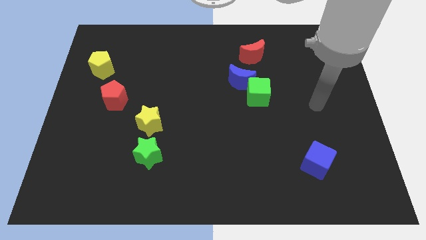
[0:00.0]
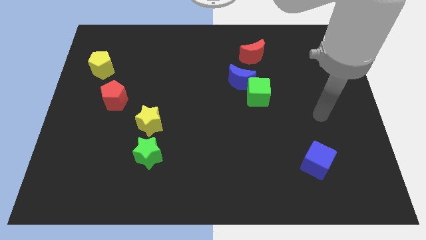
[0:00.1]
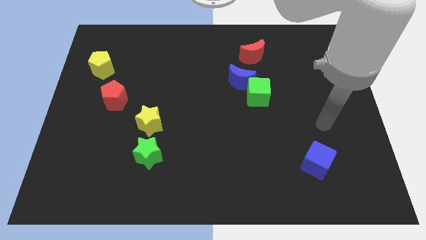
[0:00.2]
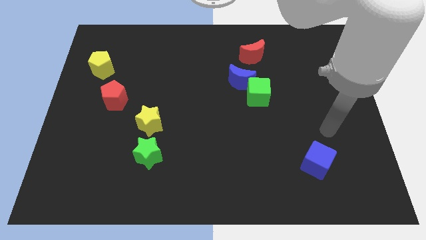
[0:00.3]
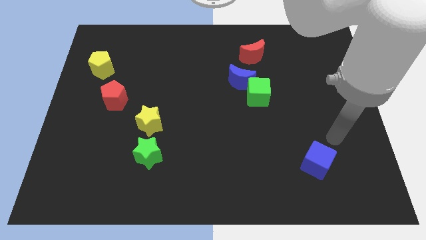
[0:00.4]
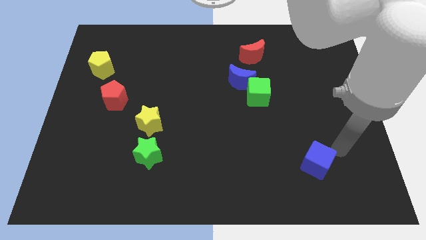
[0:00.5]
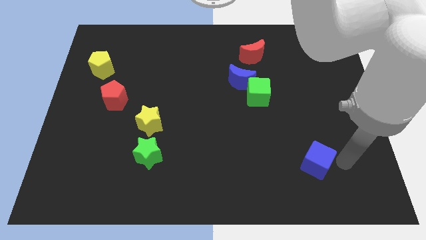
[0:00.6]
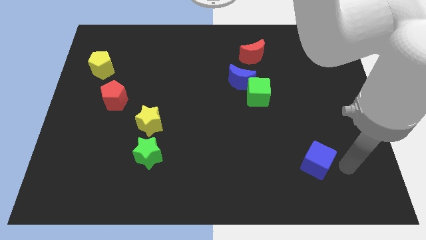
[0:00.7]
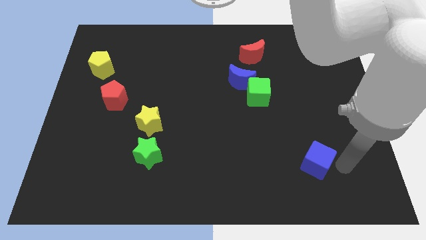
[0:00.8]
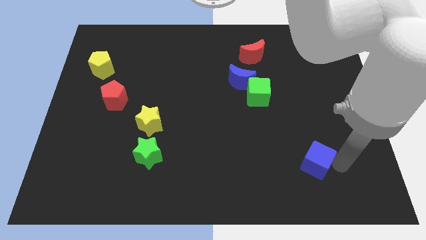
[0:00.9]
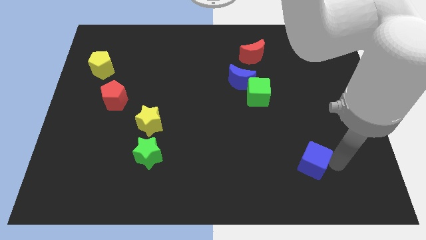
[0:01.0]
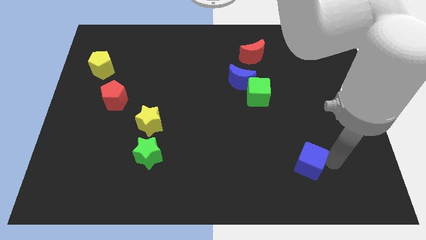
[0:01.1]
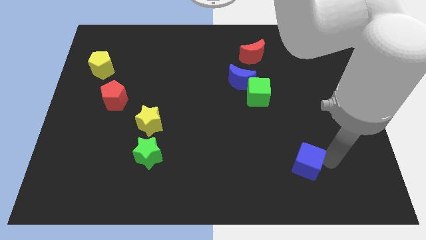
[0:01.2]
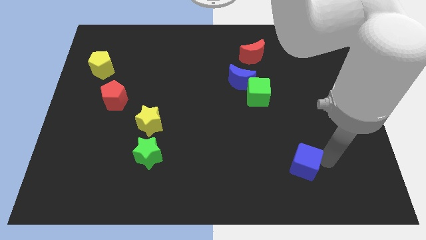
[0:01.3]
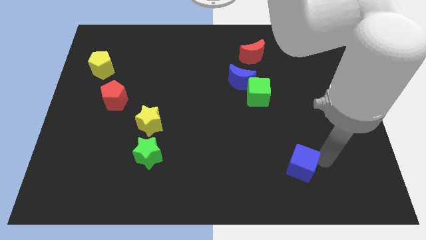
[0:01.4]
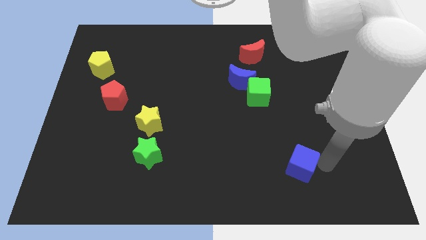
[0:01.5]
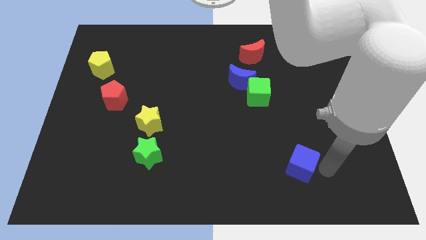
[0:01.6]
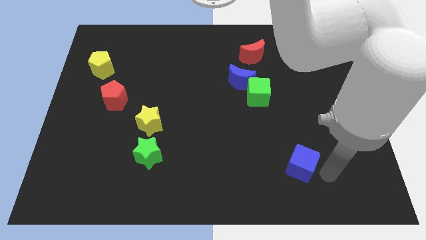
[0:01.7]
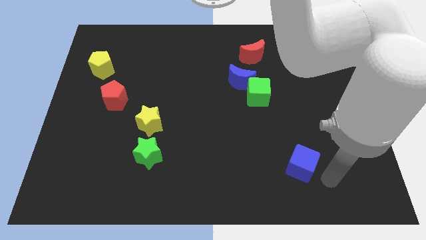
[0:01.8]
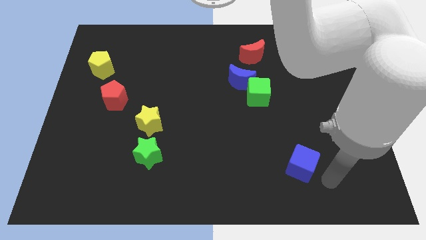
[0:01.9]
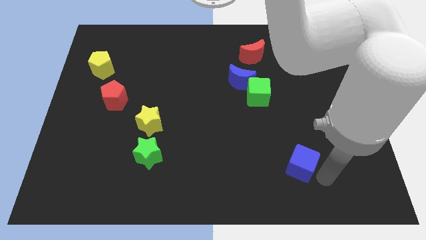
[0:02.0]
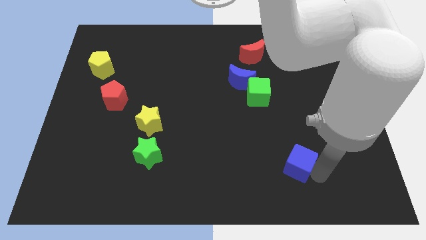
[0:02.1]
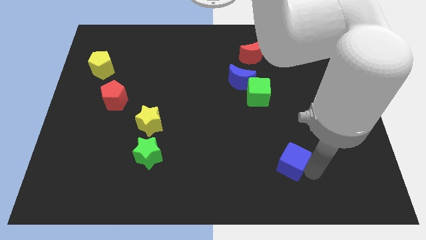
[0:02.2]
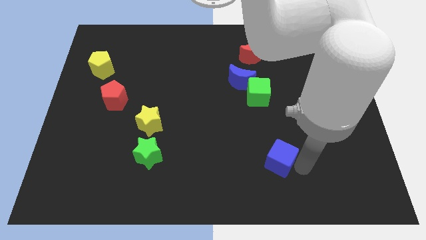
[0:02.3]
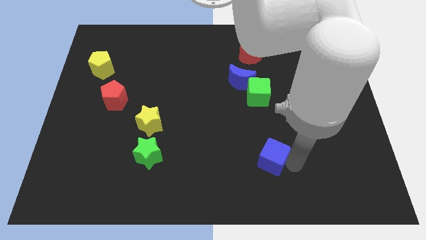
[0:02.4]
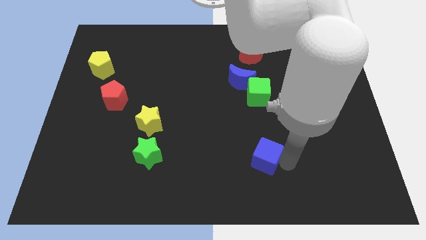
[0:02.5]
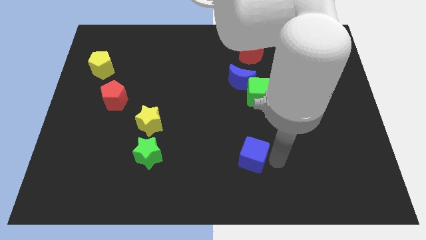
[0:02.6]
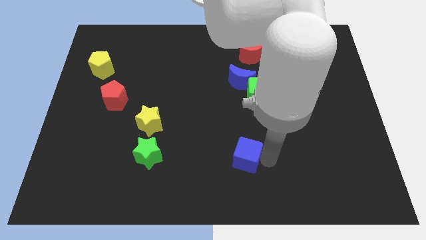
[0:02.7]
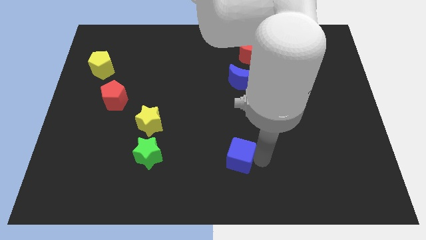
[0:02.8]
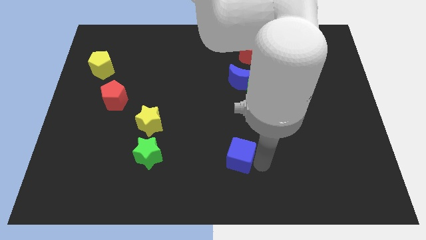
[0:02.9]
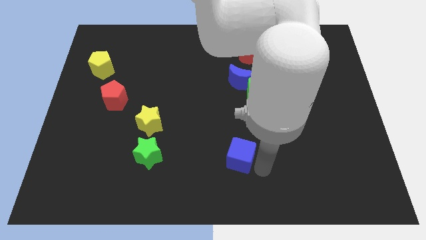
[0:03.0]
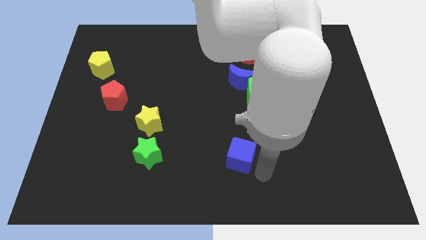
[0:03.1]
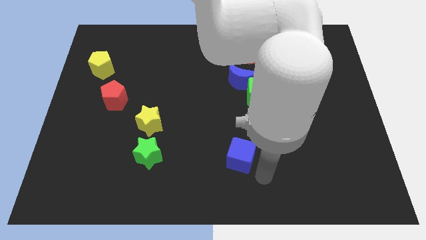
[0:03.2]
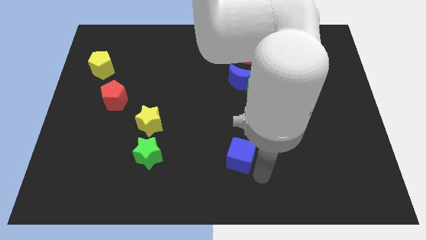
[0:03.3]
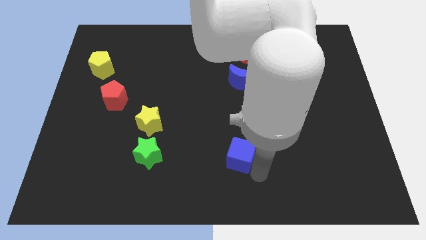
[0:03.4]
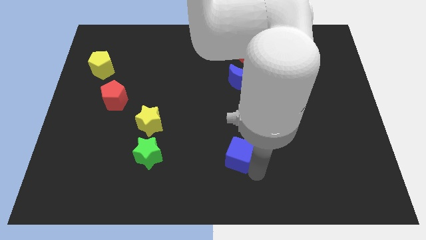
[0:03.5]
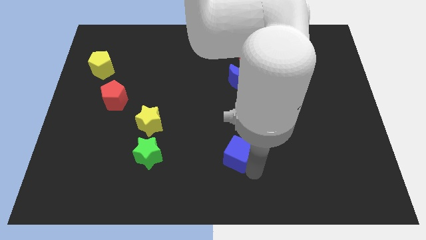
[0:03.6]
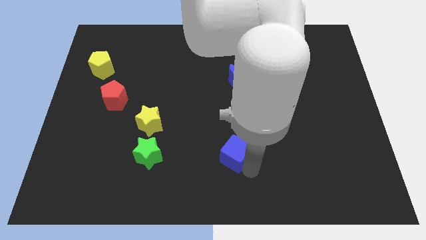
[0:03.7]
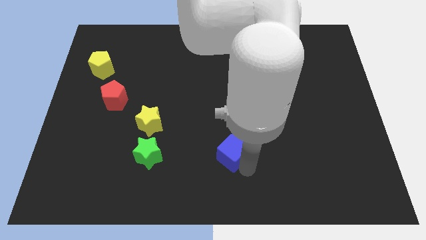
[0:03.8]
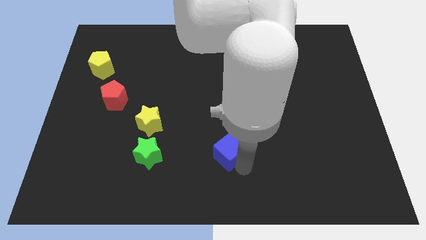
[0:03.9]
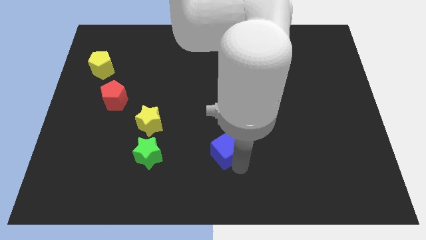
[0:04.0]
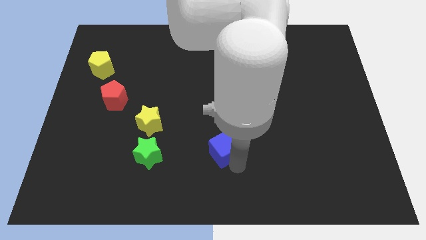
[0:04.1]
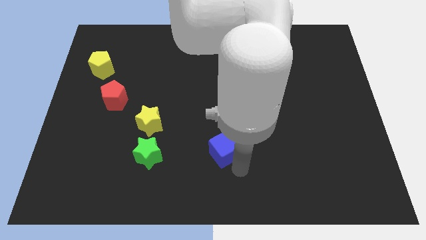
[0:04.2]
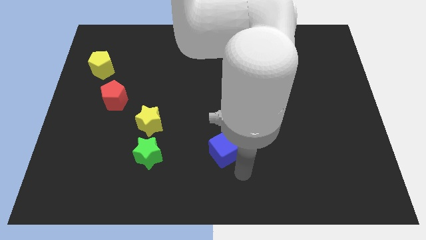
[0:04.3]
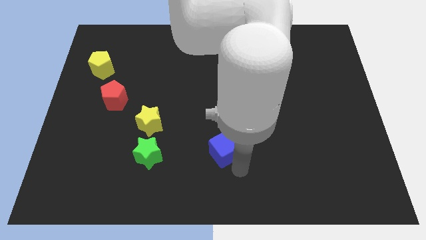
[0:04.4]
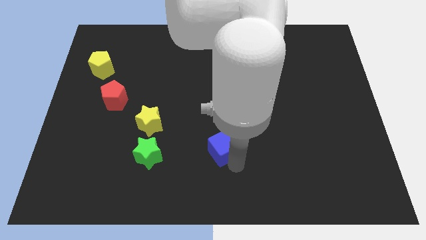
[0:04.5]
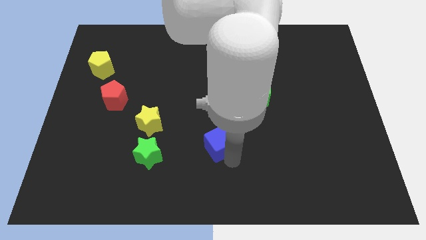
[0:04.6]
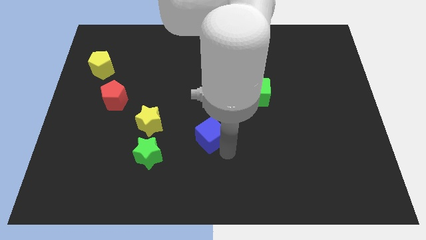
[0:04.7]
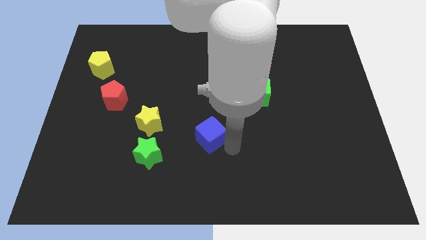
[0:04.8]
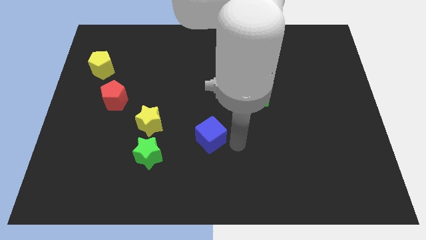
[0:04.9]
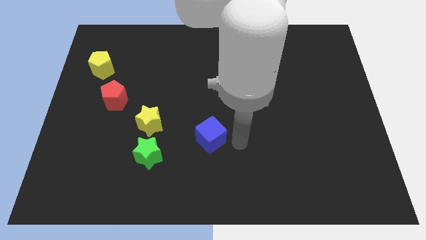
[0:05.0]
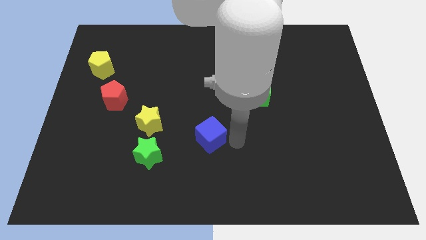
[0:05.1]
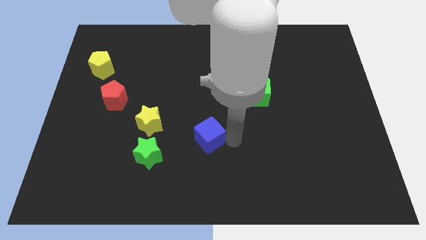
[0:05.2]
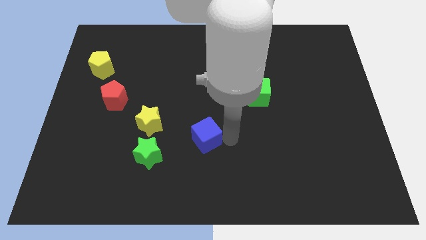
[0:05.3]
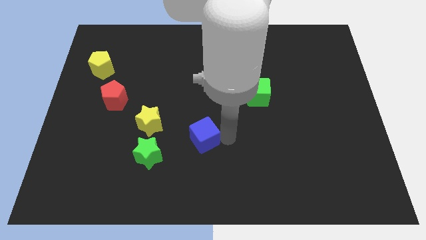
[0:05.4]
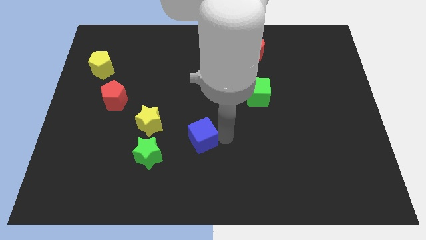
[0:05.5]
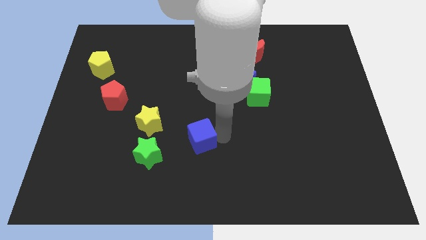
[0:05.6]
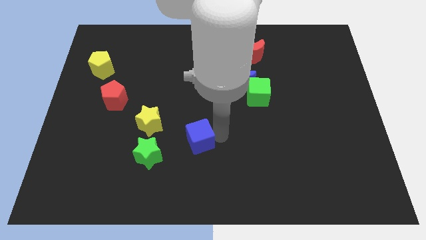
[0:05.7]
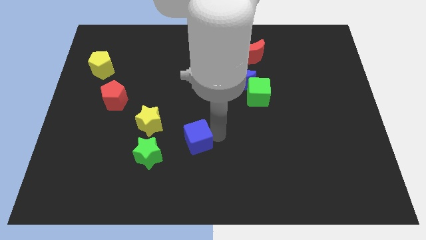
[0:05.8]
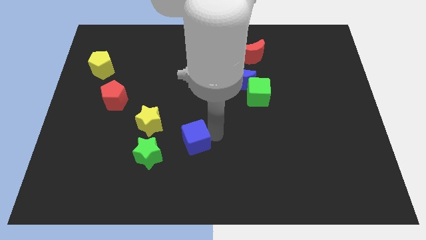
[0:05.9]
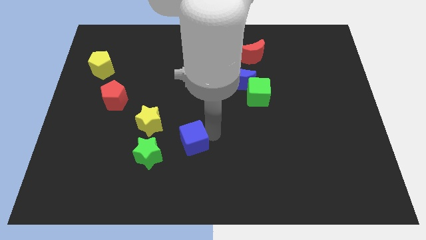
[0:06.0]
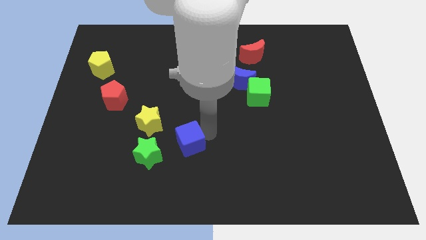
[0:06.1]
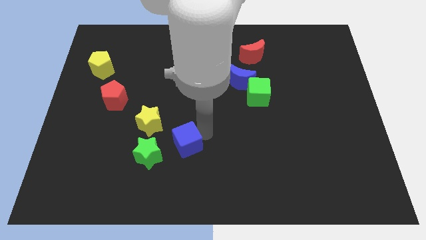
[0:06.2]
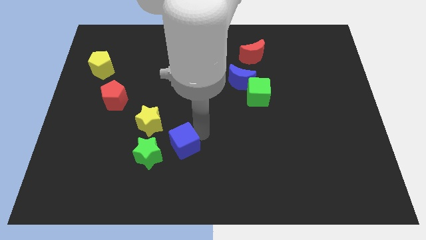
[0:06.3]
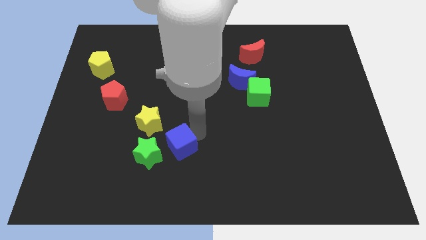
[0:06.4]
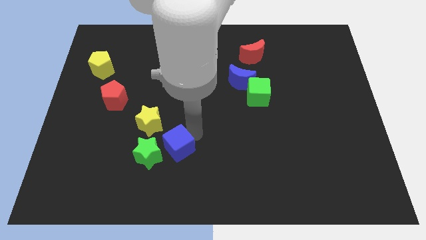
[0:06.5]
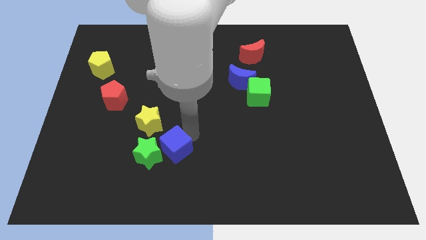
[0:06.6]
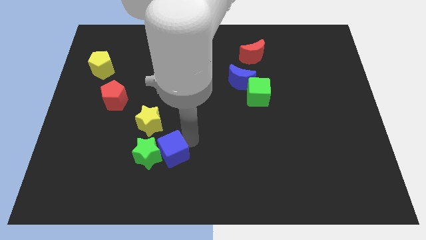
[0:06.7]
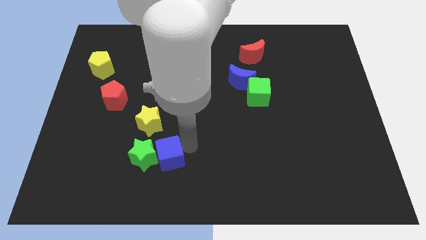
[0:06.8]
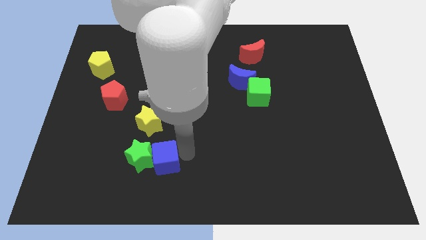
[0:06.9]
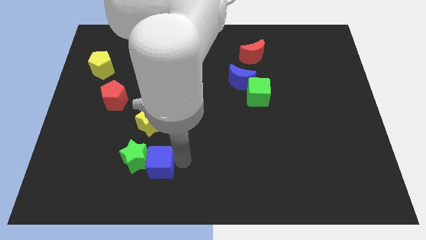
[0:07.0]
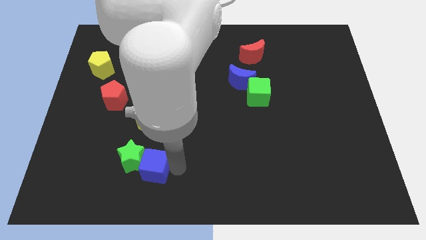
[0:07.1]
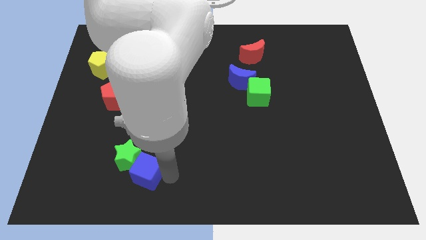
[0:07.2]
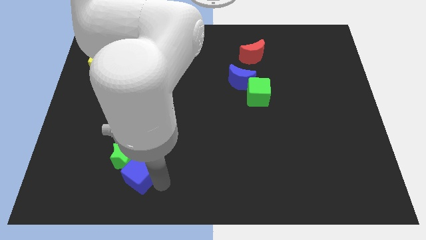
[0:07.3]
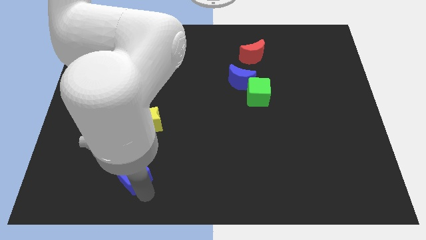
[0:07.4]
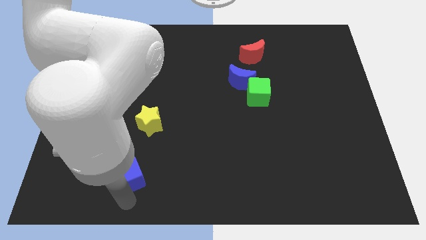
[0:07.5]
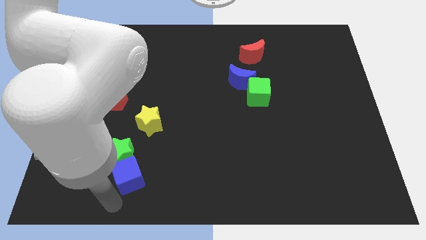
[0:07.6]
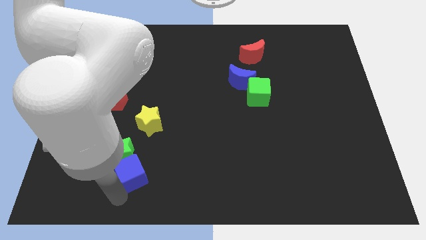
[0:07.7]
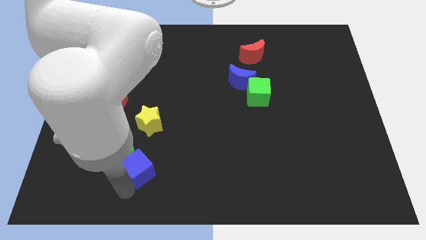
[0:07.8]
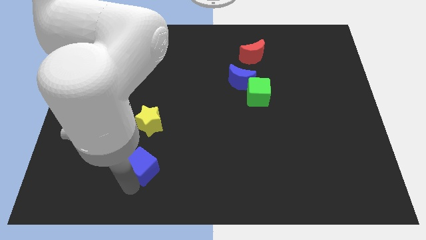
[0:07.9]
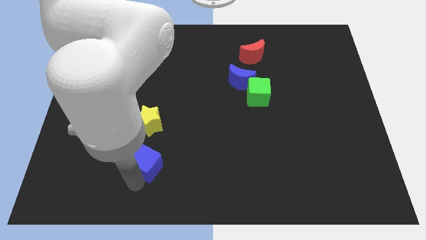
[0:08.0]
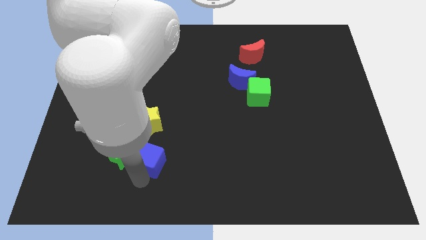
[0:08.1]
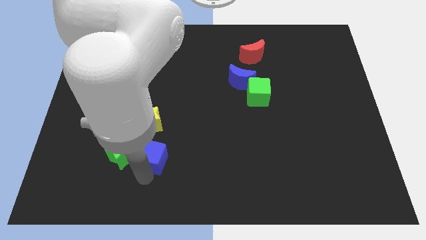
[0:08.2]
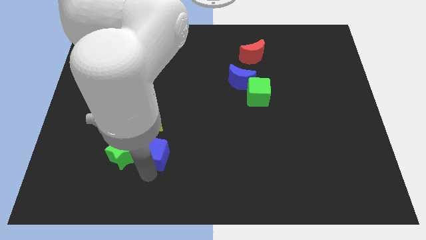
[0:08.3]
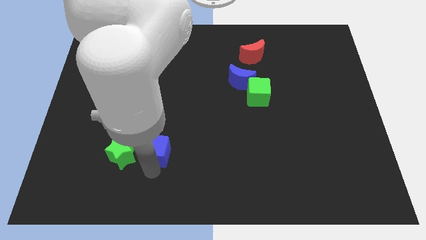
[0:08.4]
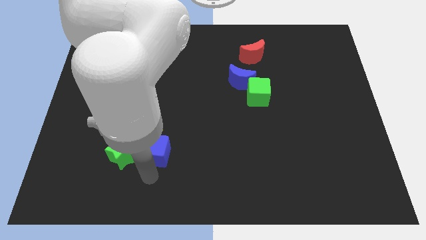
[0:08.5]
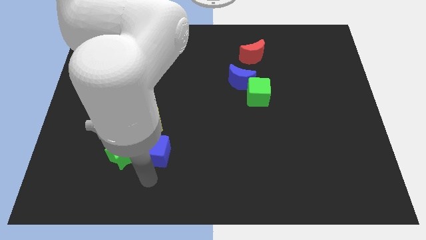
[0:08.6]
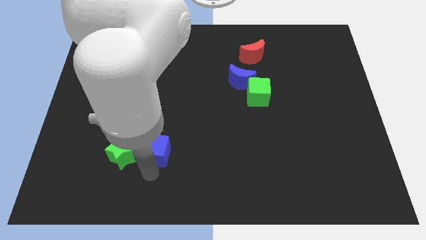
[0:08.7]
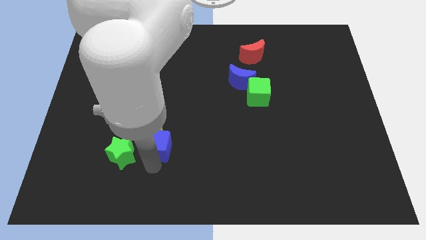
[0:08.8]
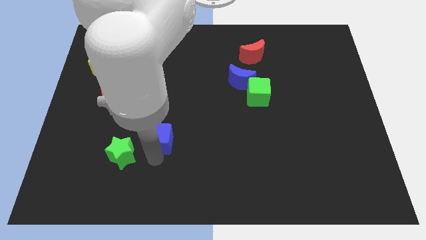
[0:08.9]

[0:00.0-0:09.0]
slide the blue cube next to the yellow star
